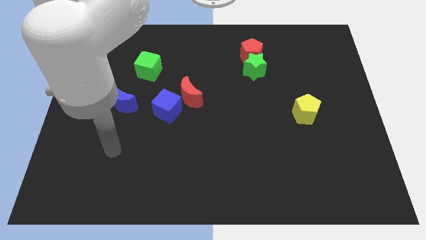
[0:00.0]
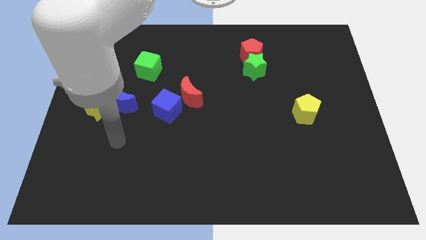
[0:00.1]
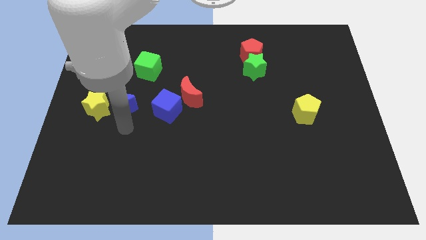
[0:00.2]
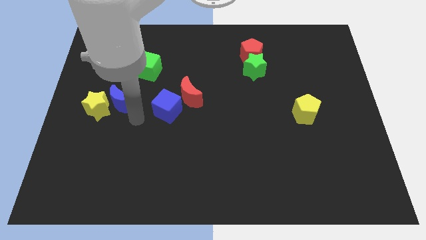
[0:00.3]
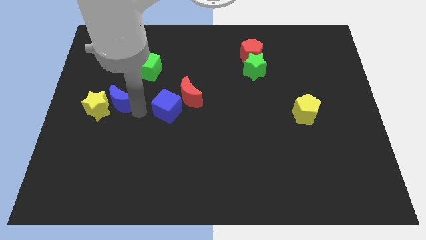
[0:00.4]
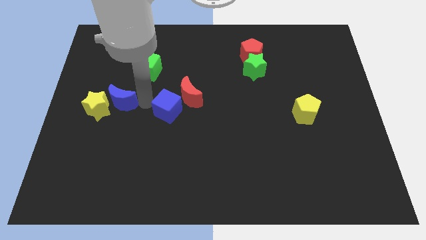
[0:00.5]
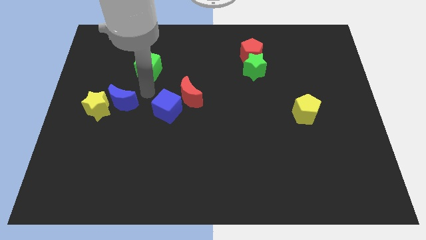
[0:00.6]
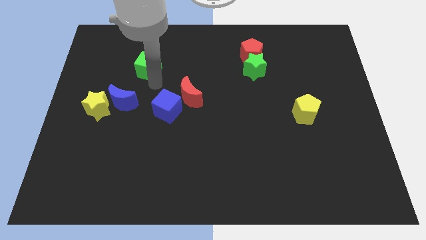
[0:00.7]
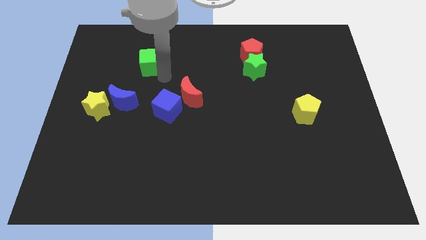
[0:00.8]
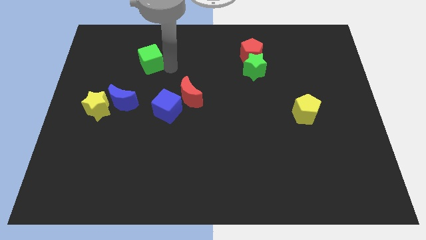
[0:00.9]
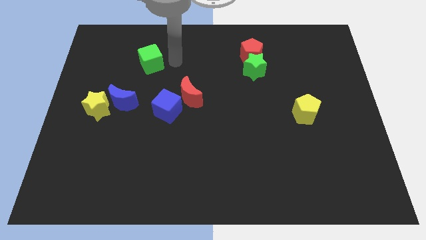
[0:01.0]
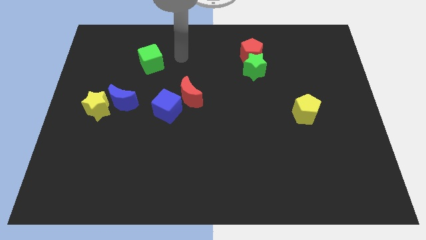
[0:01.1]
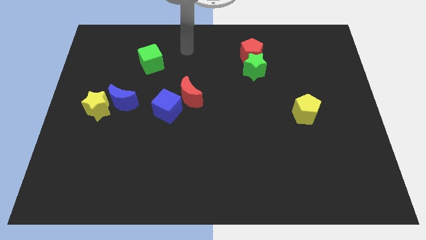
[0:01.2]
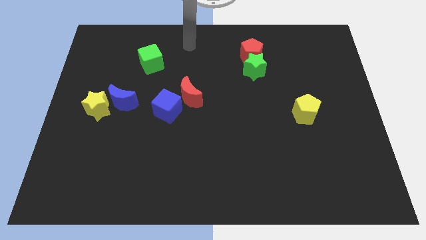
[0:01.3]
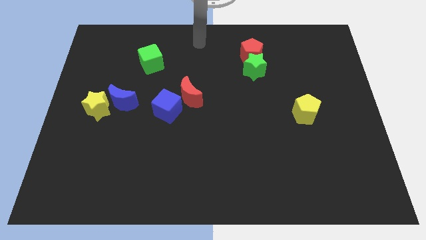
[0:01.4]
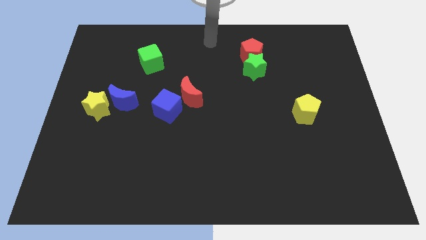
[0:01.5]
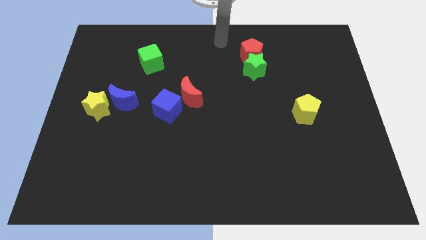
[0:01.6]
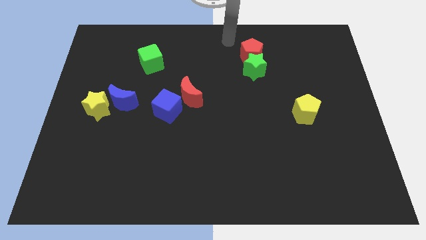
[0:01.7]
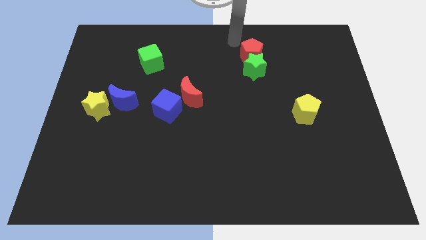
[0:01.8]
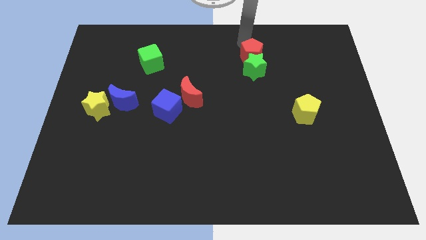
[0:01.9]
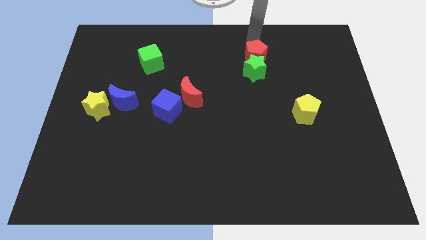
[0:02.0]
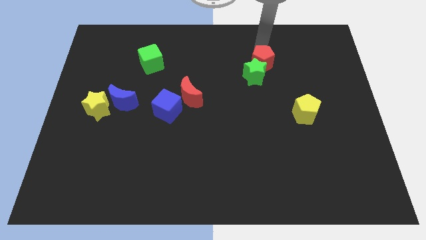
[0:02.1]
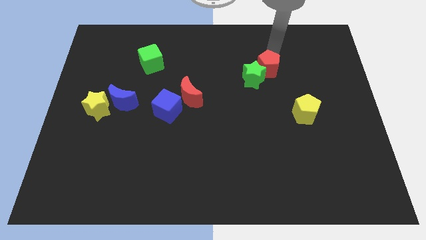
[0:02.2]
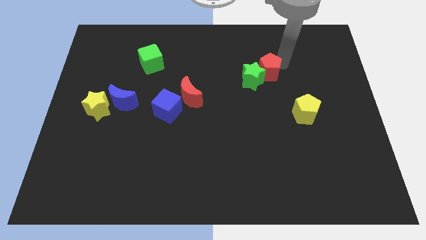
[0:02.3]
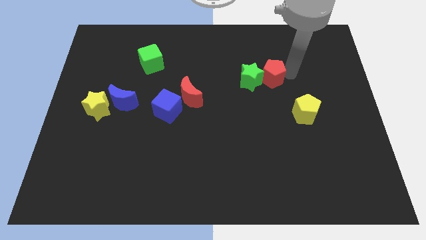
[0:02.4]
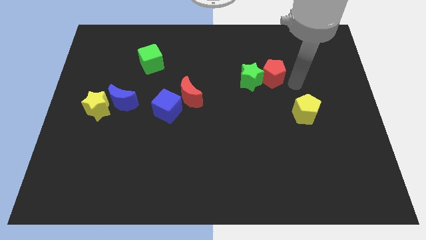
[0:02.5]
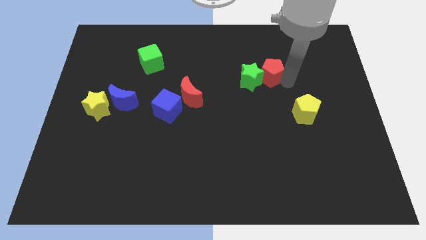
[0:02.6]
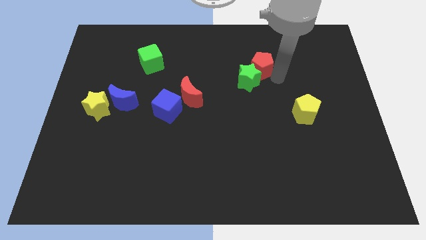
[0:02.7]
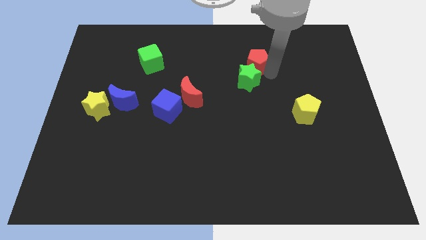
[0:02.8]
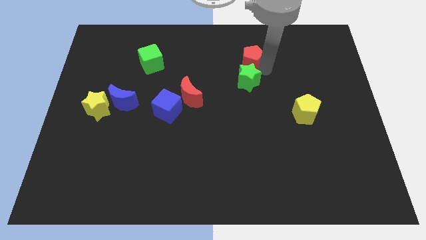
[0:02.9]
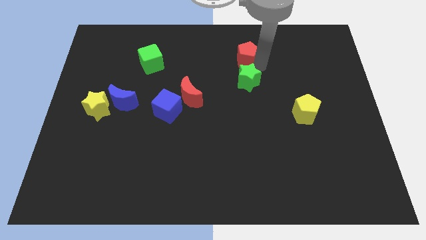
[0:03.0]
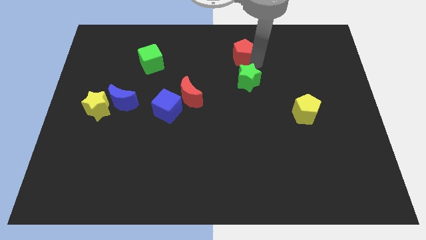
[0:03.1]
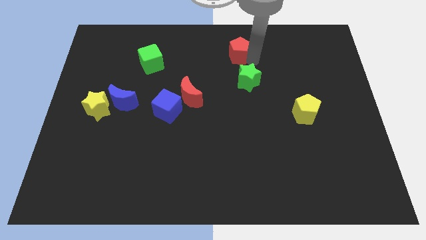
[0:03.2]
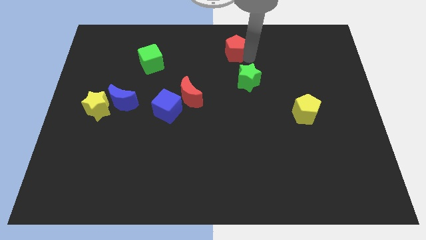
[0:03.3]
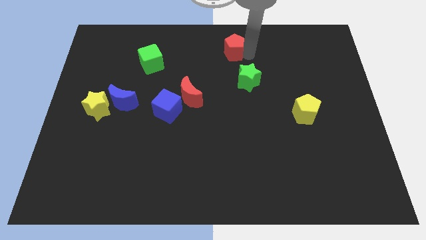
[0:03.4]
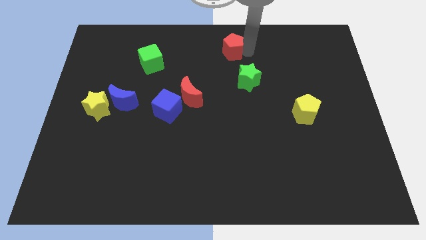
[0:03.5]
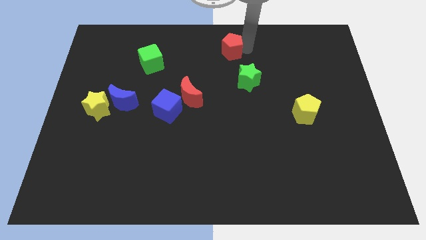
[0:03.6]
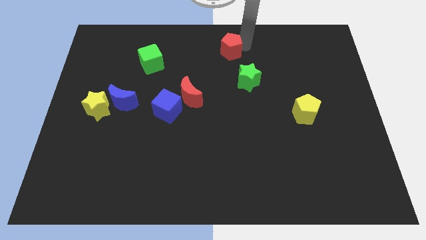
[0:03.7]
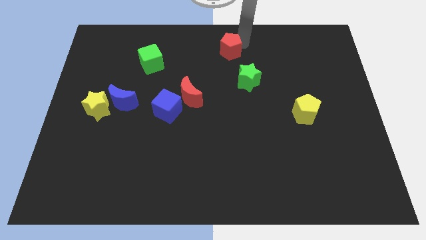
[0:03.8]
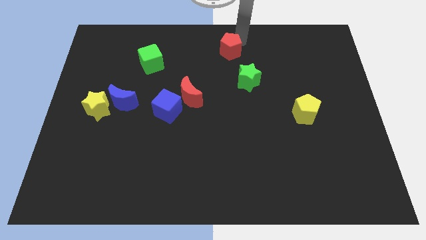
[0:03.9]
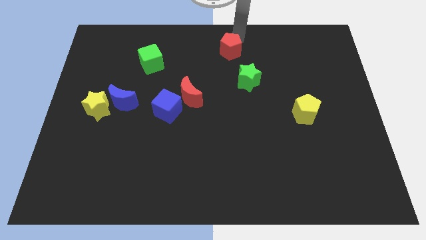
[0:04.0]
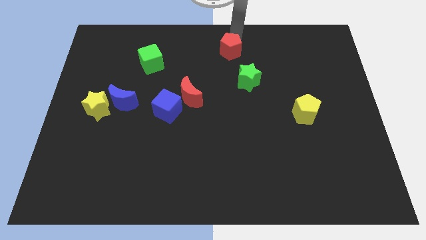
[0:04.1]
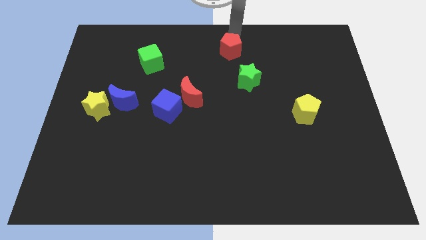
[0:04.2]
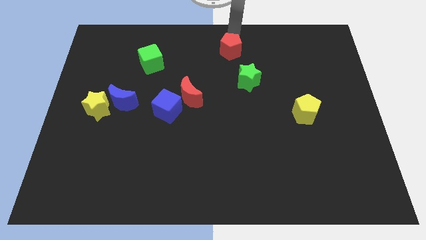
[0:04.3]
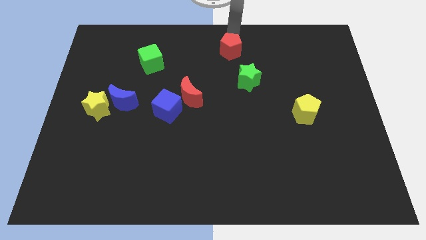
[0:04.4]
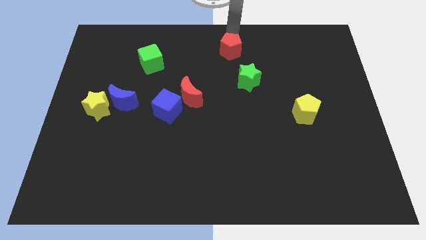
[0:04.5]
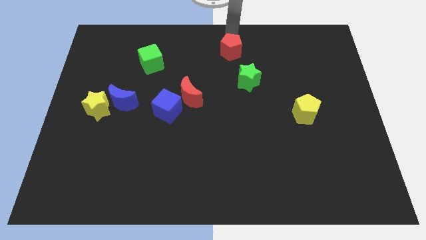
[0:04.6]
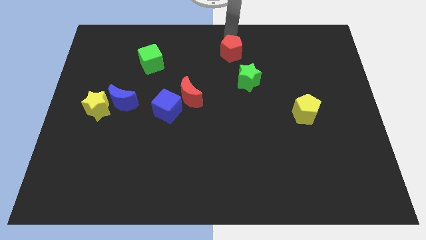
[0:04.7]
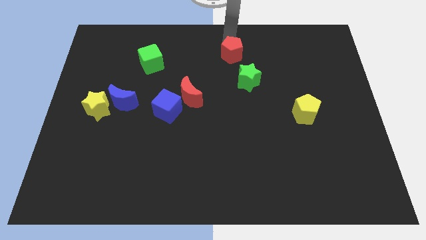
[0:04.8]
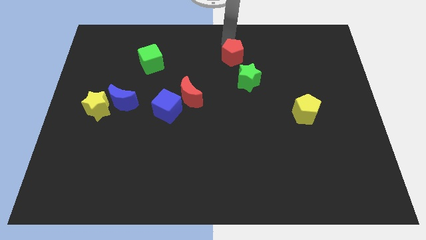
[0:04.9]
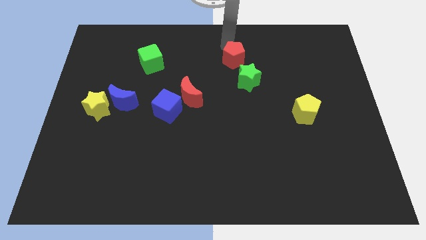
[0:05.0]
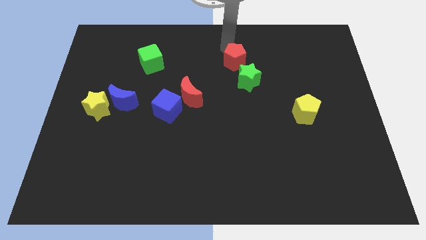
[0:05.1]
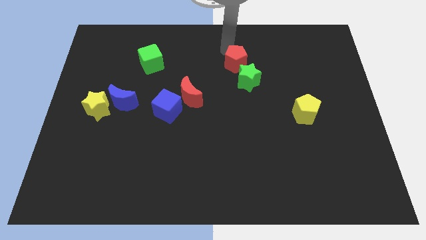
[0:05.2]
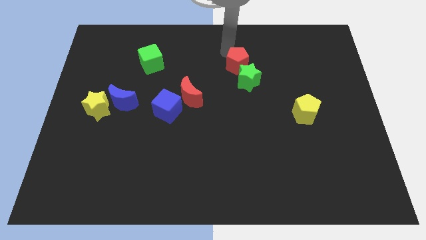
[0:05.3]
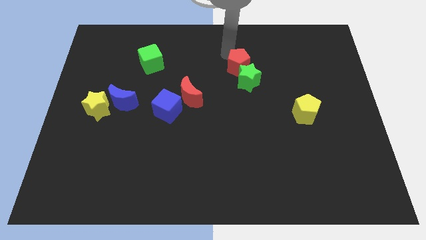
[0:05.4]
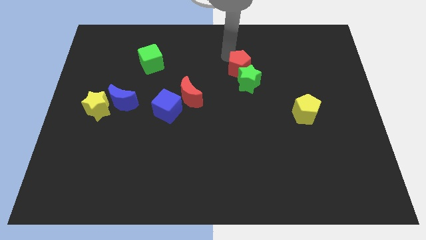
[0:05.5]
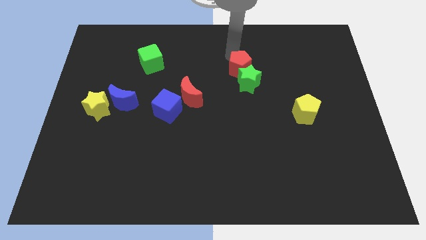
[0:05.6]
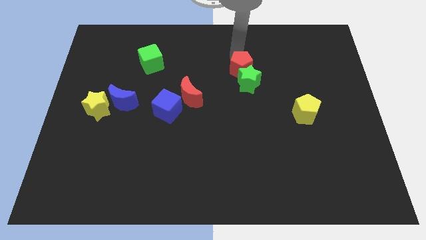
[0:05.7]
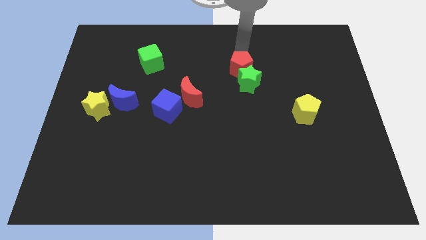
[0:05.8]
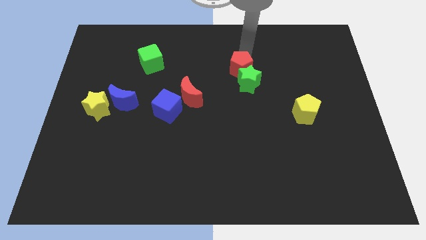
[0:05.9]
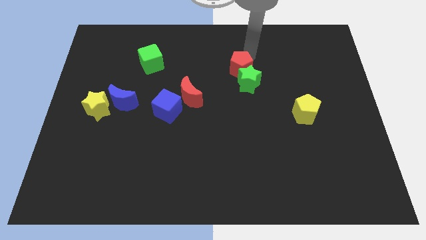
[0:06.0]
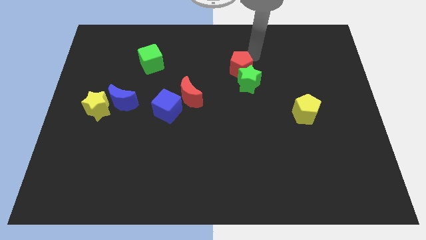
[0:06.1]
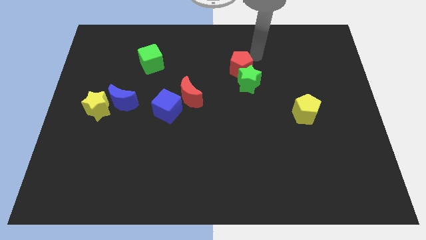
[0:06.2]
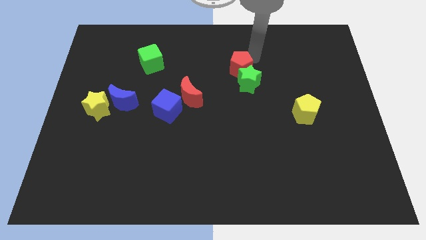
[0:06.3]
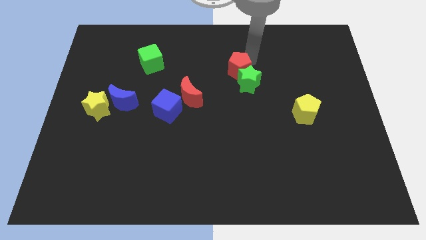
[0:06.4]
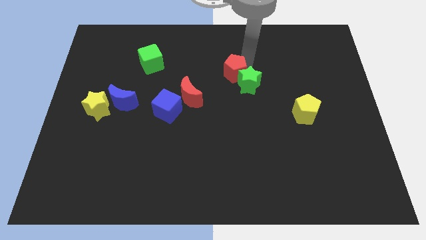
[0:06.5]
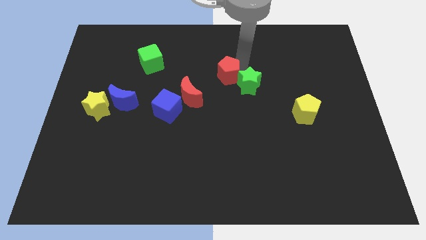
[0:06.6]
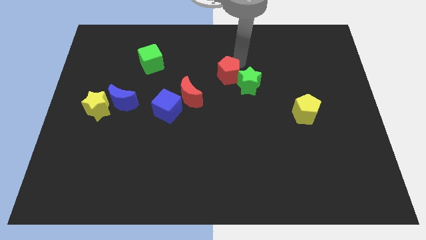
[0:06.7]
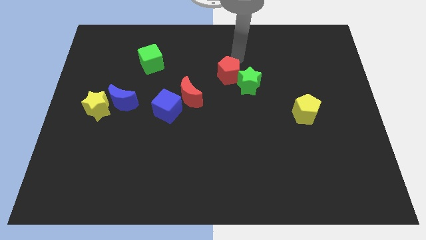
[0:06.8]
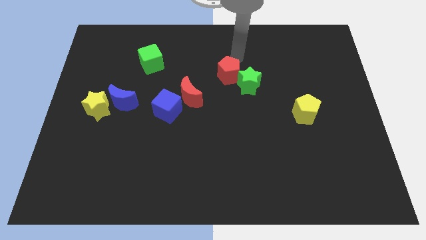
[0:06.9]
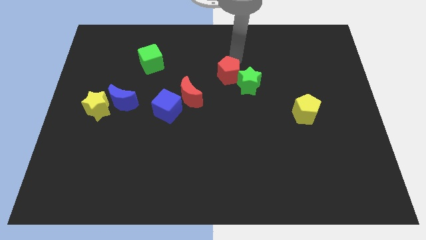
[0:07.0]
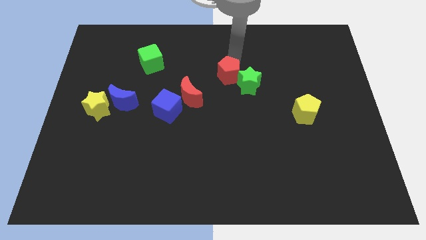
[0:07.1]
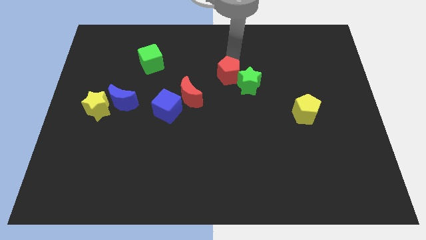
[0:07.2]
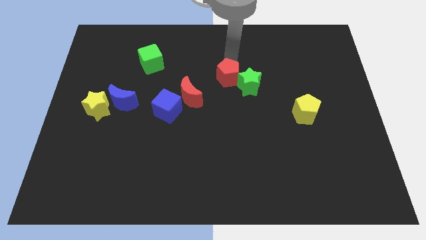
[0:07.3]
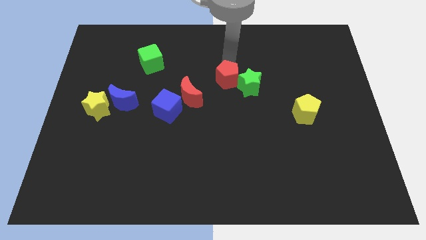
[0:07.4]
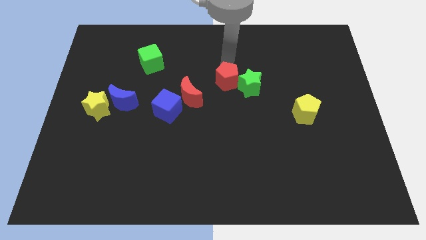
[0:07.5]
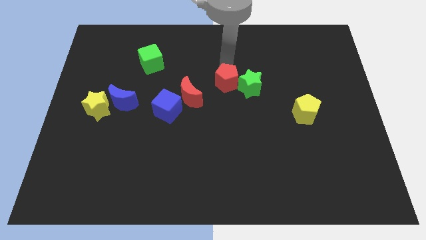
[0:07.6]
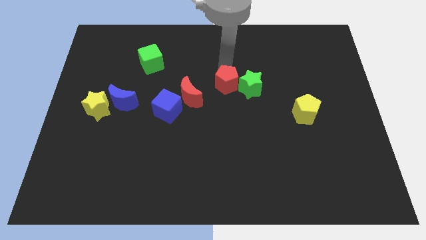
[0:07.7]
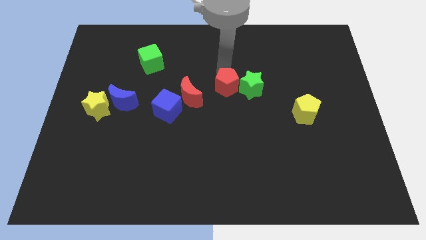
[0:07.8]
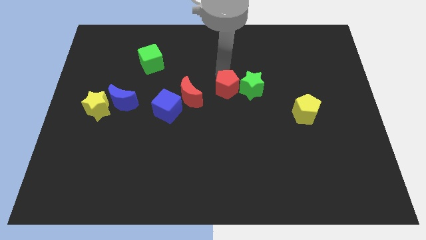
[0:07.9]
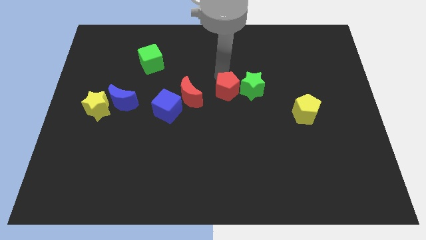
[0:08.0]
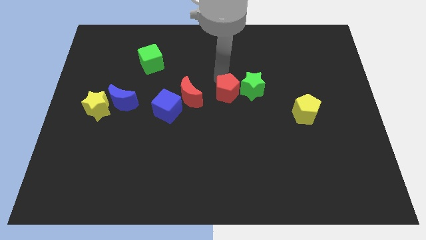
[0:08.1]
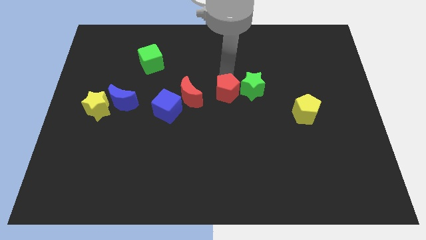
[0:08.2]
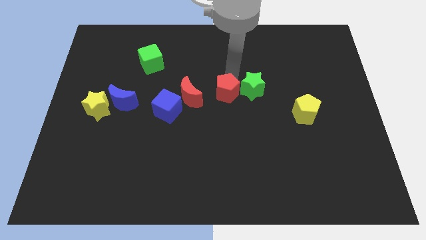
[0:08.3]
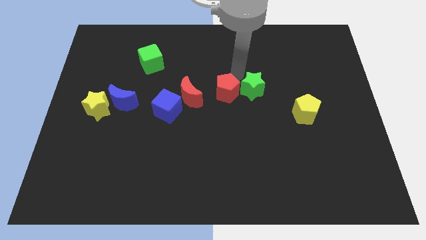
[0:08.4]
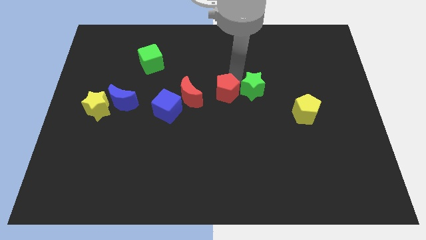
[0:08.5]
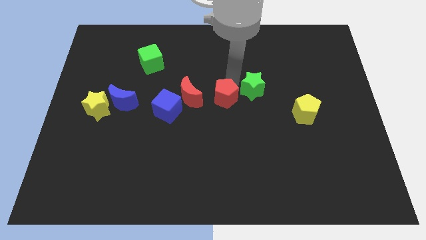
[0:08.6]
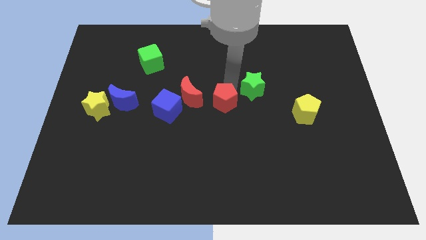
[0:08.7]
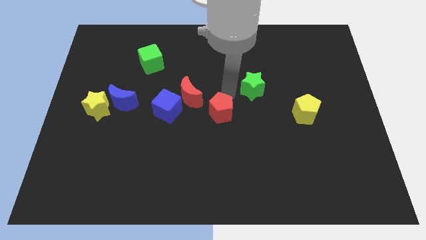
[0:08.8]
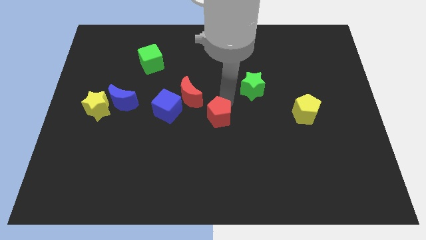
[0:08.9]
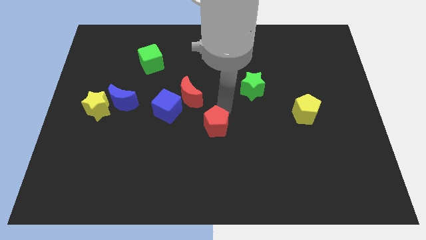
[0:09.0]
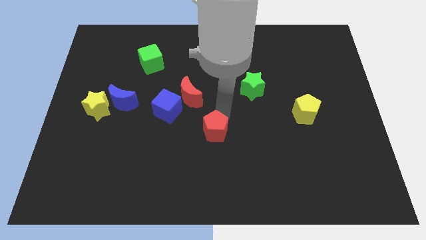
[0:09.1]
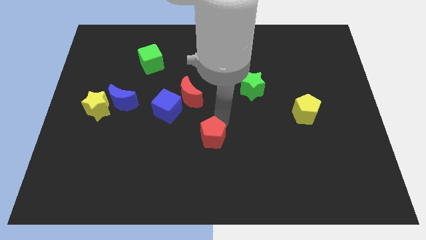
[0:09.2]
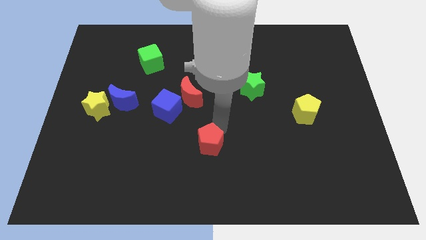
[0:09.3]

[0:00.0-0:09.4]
slide the red pentagon to the bottom side of the red moon
